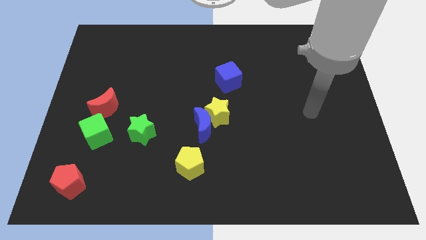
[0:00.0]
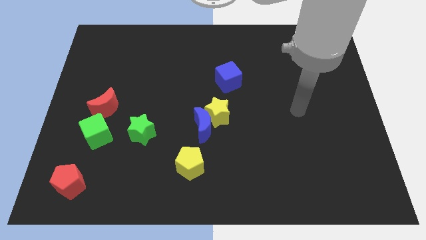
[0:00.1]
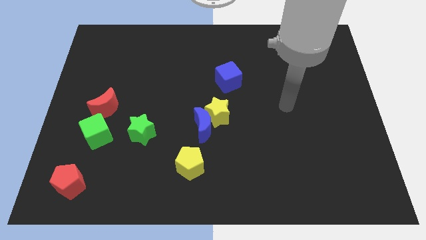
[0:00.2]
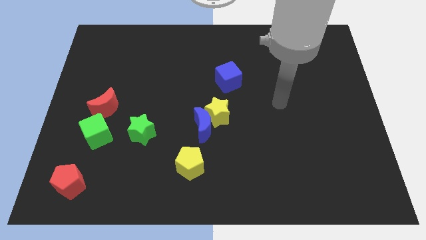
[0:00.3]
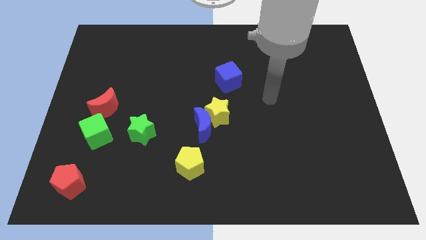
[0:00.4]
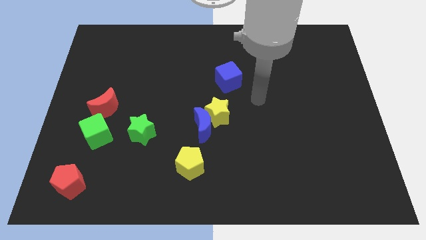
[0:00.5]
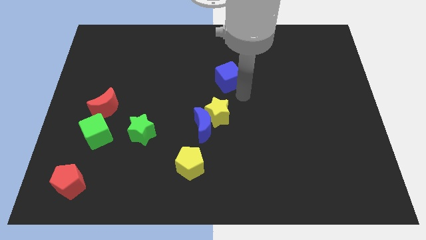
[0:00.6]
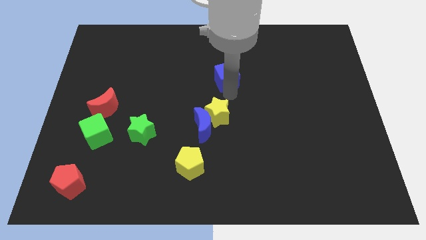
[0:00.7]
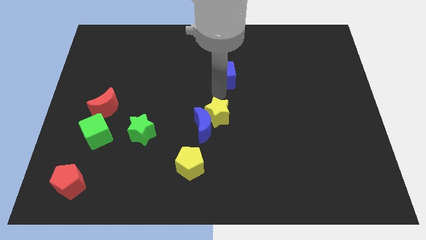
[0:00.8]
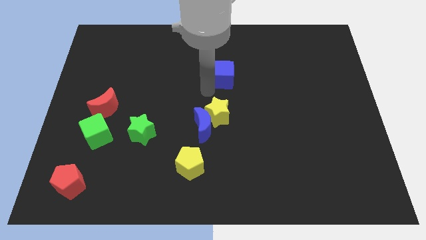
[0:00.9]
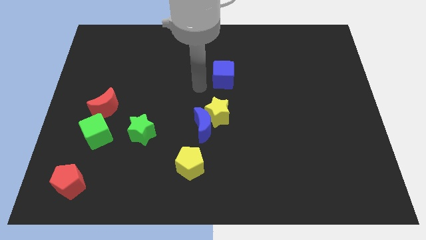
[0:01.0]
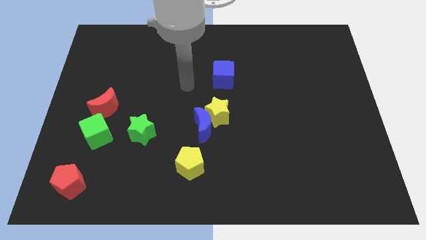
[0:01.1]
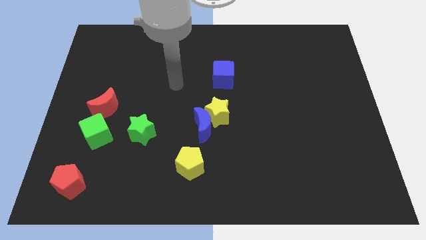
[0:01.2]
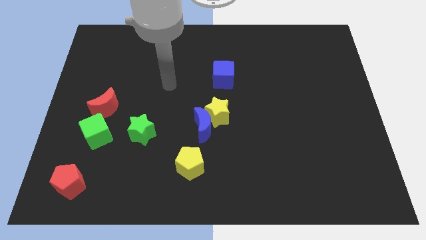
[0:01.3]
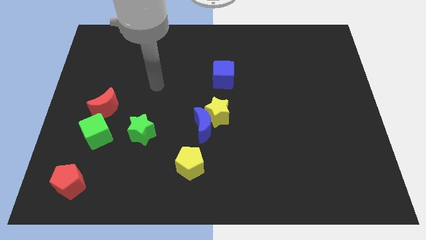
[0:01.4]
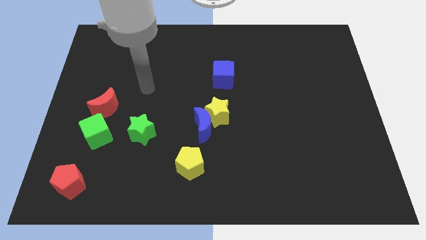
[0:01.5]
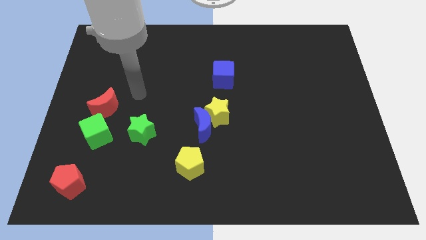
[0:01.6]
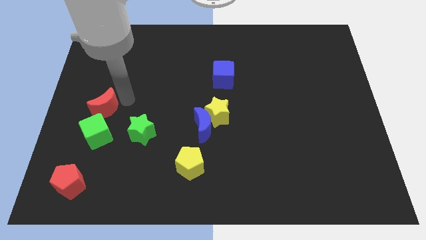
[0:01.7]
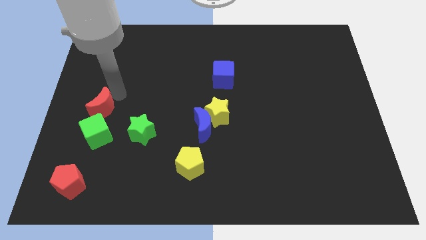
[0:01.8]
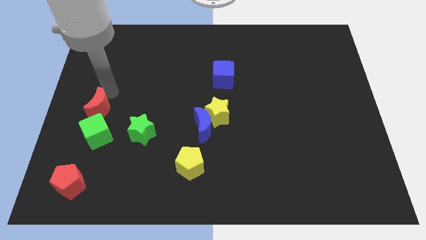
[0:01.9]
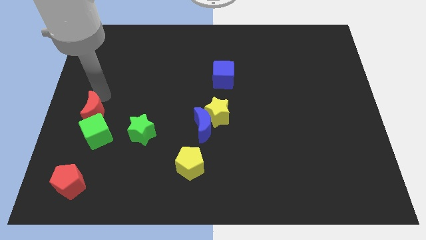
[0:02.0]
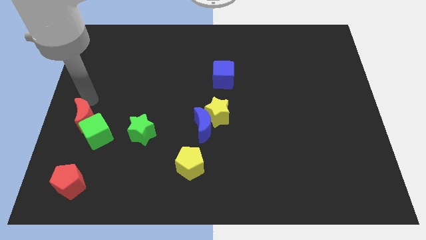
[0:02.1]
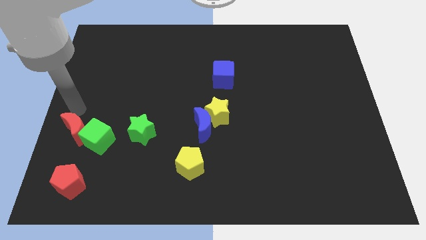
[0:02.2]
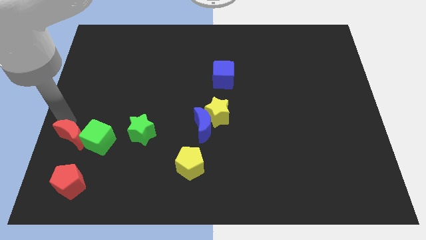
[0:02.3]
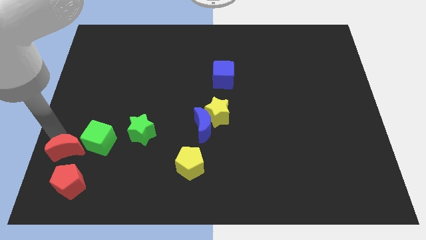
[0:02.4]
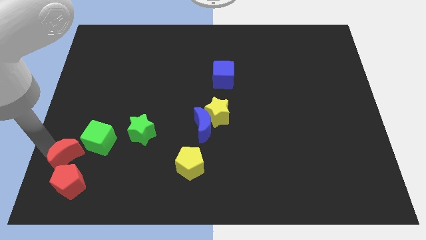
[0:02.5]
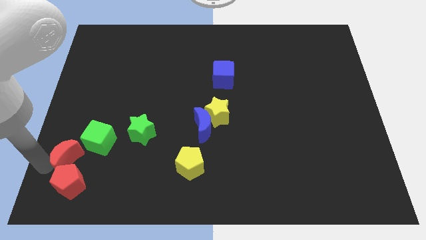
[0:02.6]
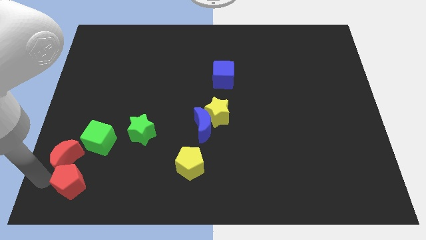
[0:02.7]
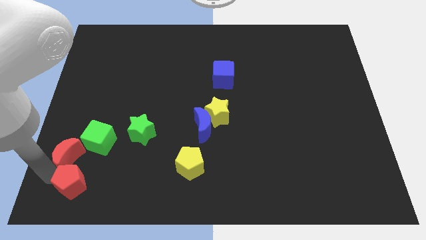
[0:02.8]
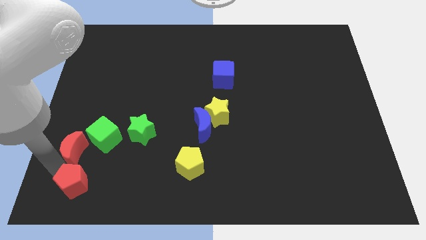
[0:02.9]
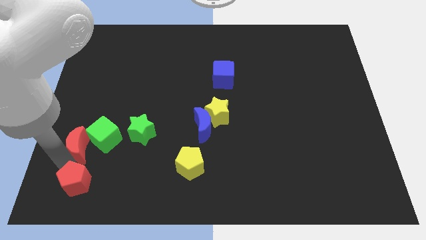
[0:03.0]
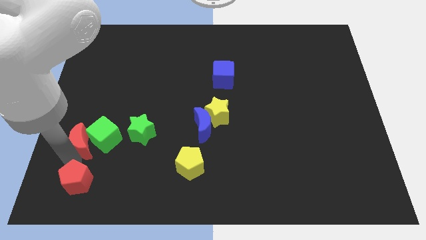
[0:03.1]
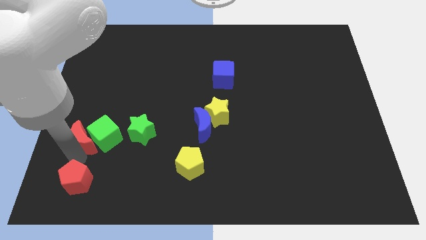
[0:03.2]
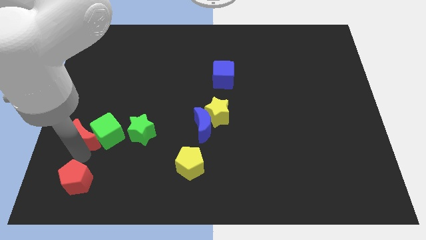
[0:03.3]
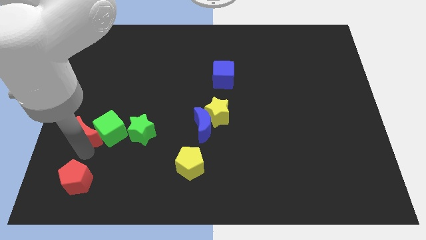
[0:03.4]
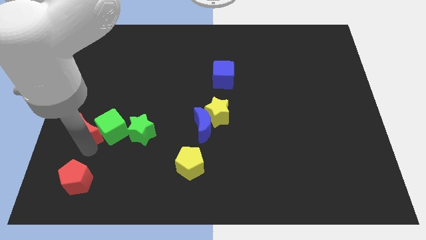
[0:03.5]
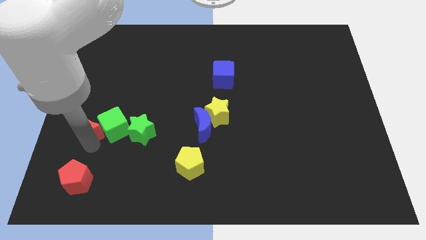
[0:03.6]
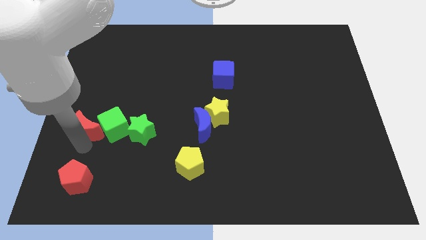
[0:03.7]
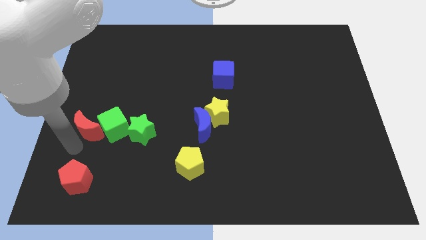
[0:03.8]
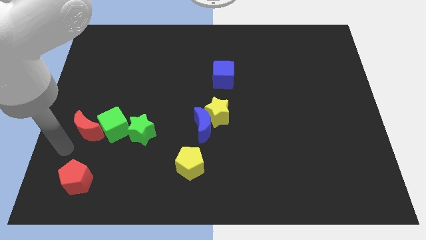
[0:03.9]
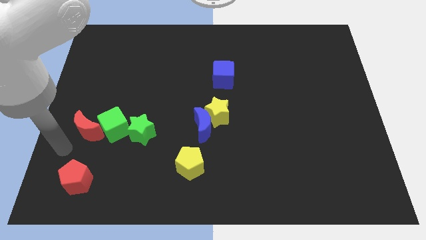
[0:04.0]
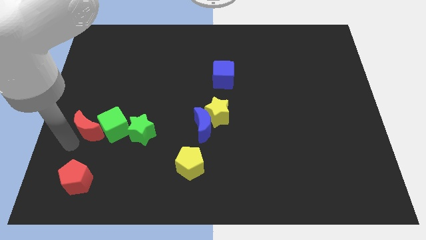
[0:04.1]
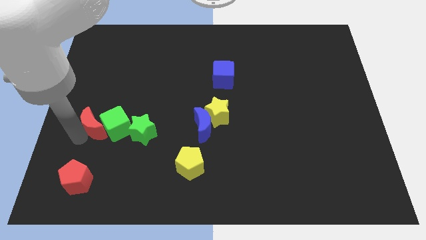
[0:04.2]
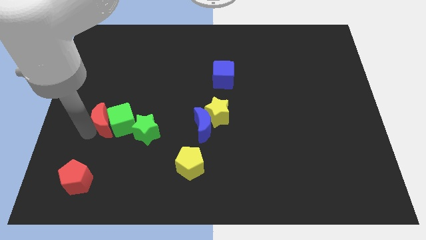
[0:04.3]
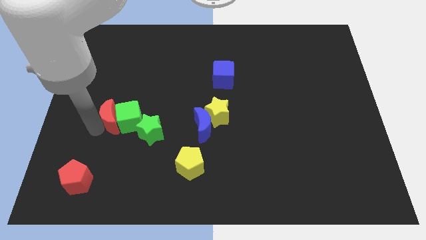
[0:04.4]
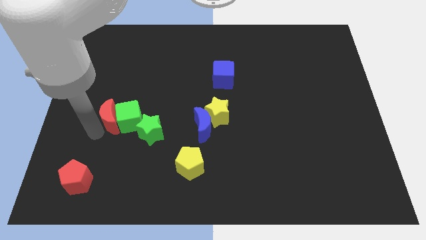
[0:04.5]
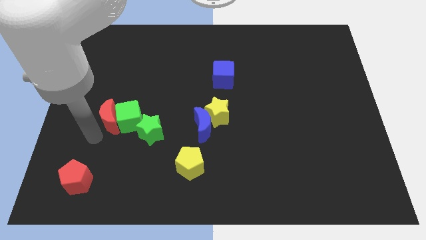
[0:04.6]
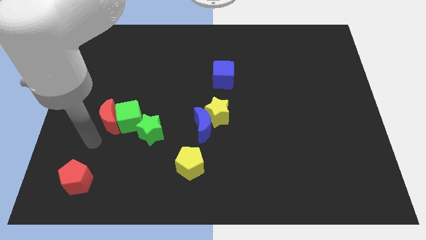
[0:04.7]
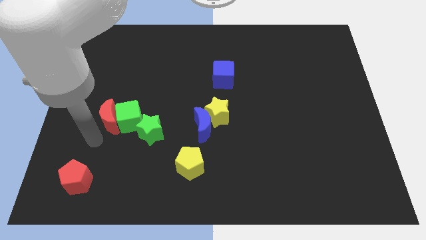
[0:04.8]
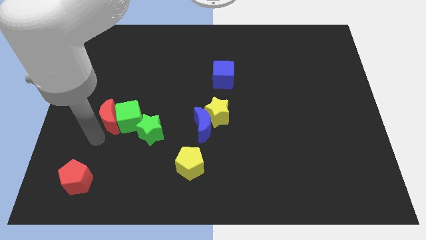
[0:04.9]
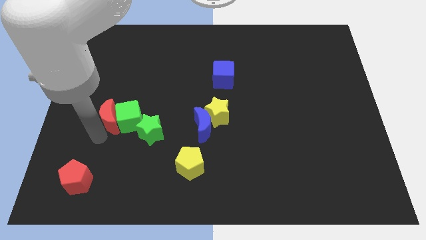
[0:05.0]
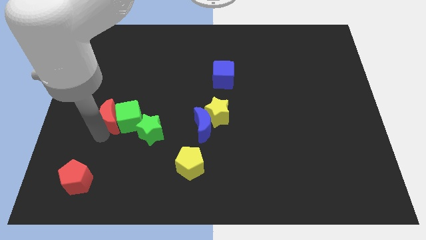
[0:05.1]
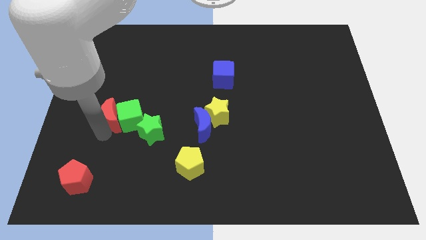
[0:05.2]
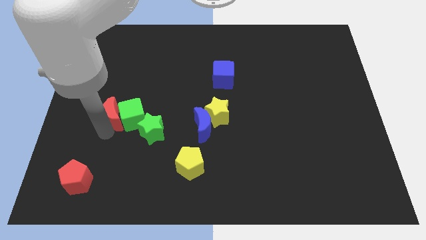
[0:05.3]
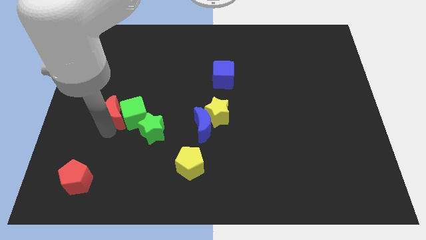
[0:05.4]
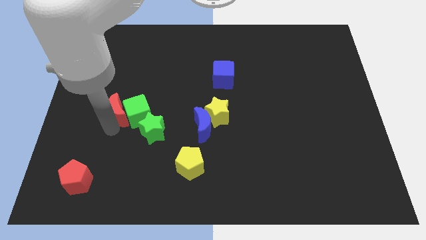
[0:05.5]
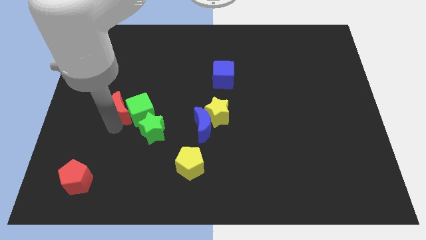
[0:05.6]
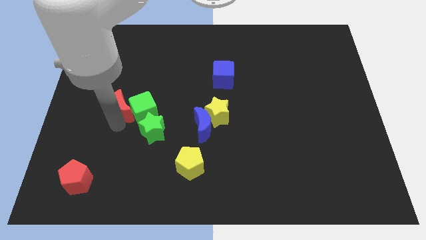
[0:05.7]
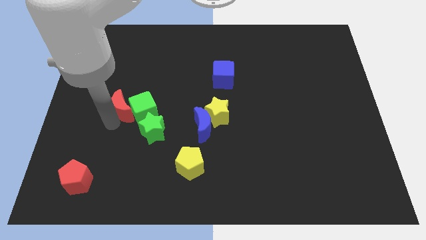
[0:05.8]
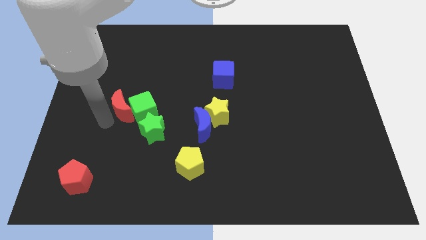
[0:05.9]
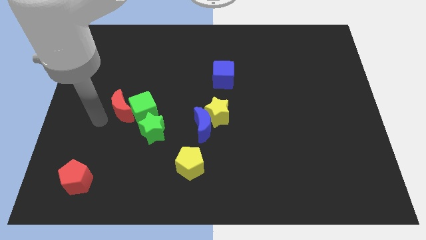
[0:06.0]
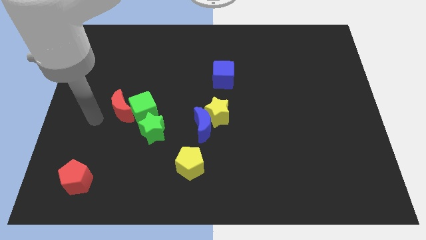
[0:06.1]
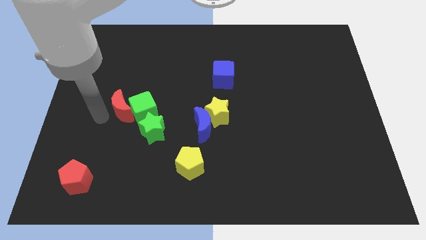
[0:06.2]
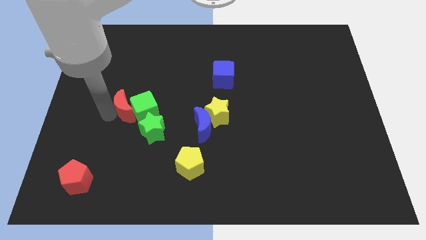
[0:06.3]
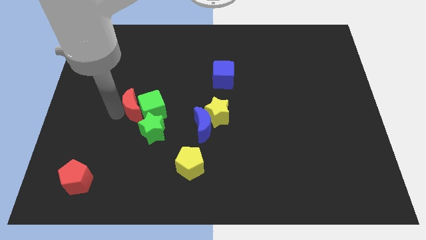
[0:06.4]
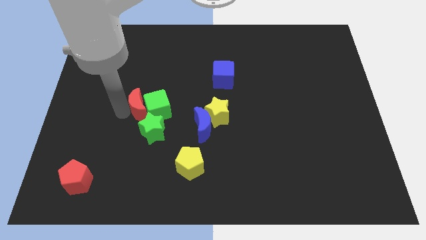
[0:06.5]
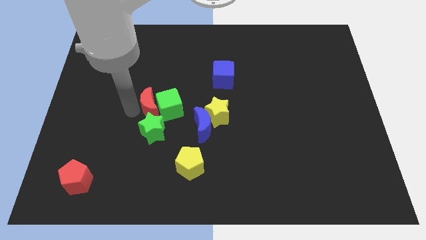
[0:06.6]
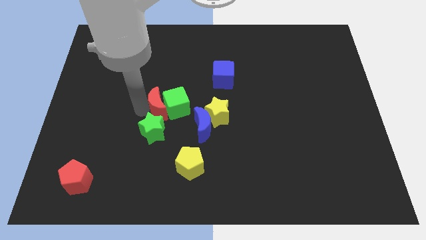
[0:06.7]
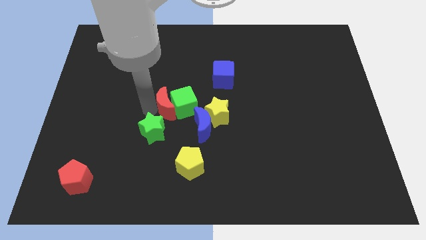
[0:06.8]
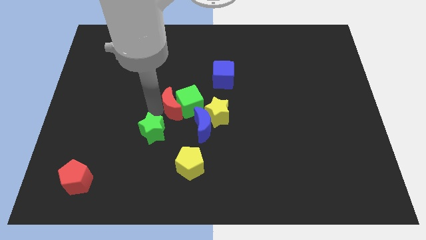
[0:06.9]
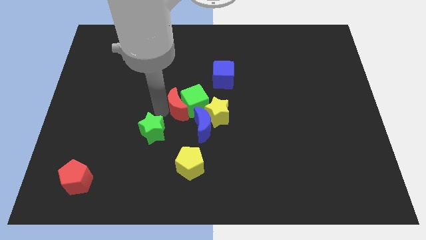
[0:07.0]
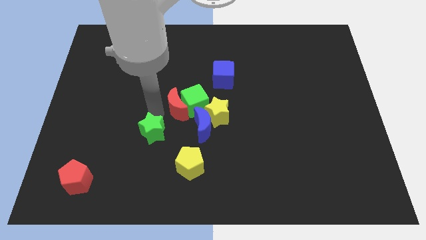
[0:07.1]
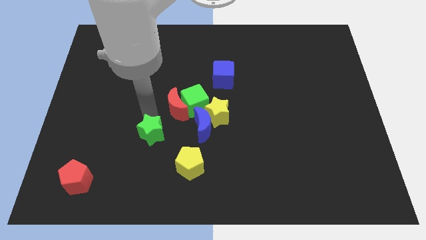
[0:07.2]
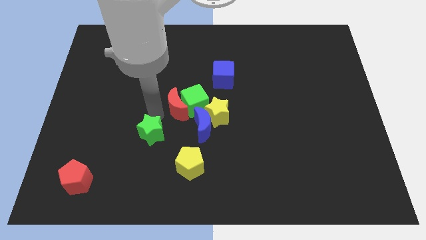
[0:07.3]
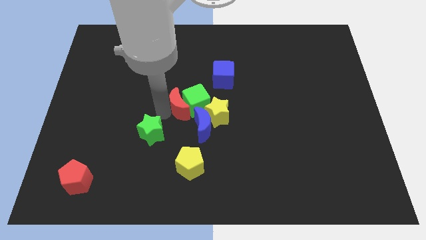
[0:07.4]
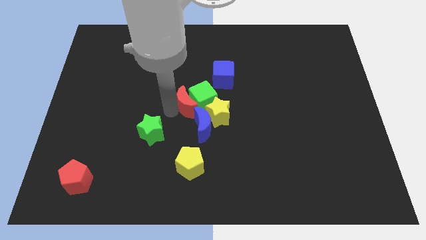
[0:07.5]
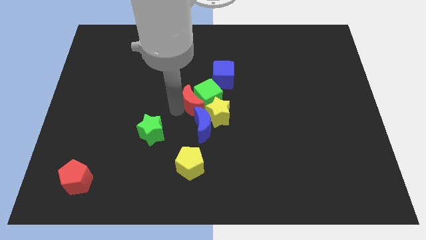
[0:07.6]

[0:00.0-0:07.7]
move the red moon right
